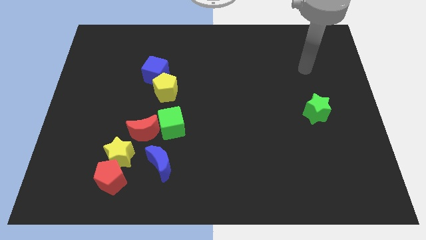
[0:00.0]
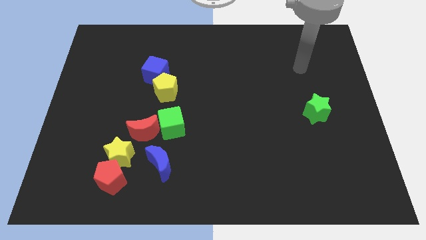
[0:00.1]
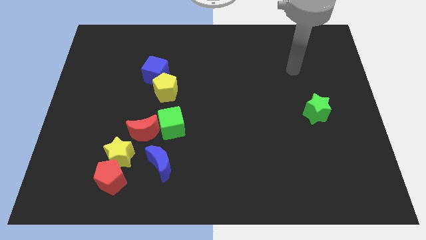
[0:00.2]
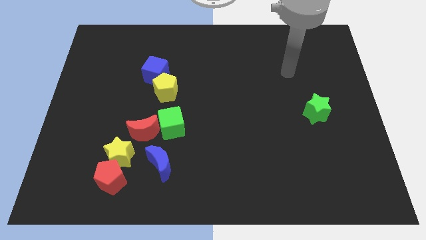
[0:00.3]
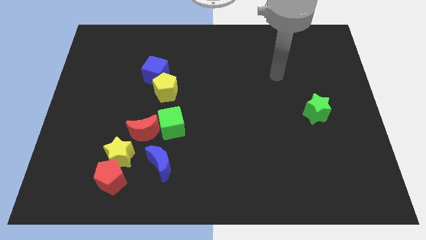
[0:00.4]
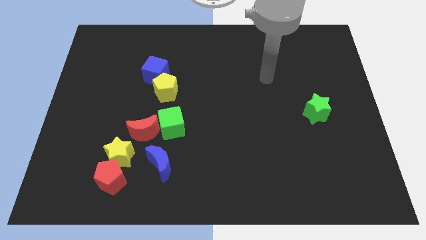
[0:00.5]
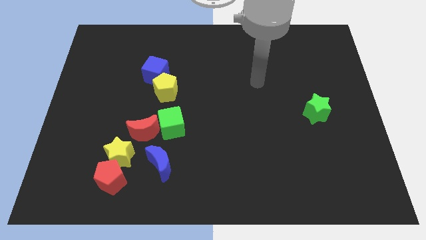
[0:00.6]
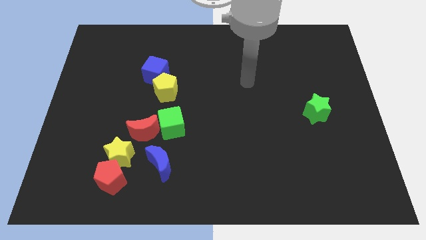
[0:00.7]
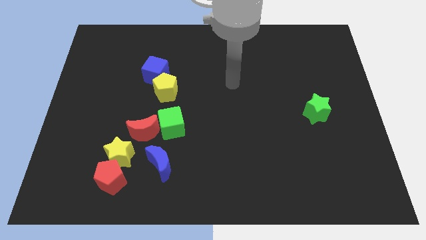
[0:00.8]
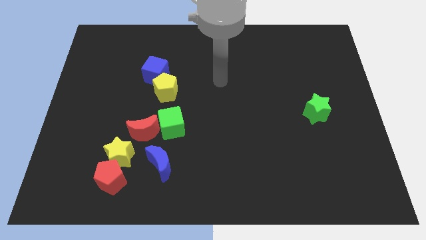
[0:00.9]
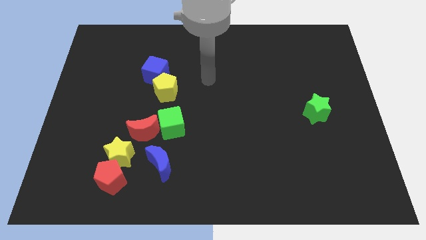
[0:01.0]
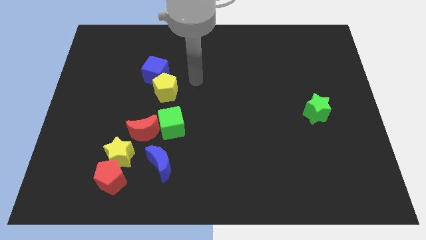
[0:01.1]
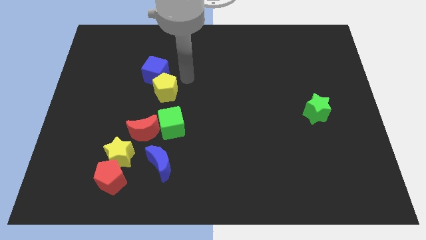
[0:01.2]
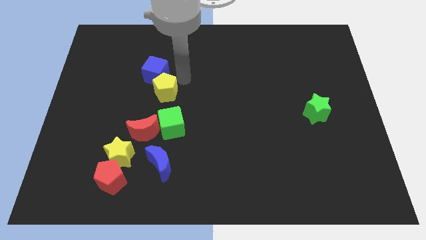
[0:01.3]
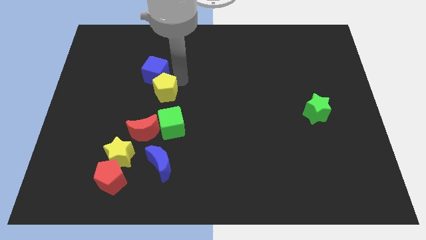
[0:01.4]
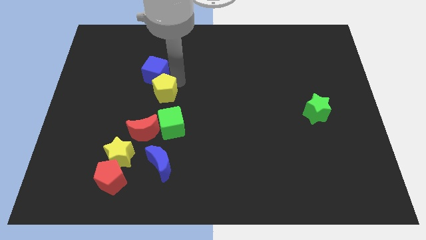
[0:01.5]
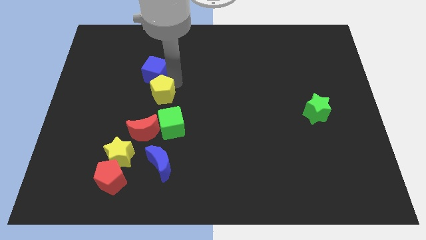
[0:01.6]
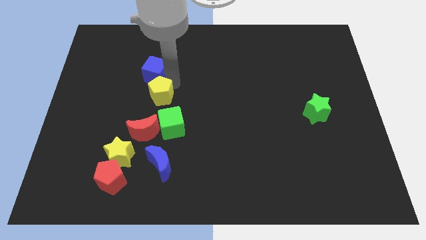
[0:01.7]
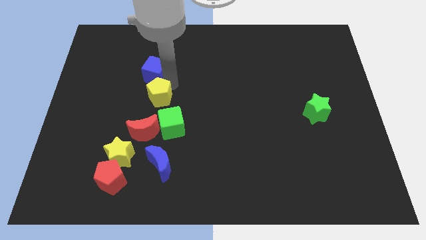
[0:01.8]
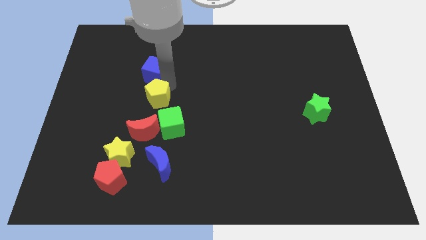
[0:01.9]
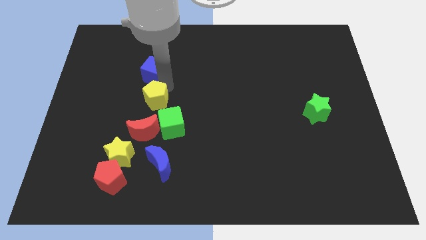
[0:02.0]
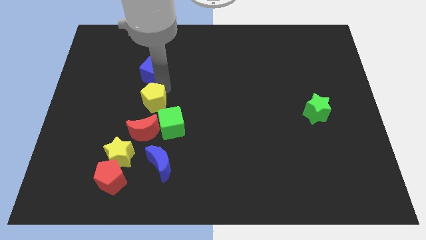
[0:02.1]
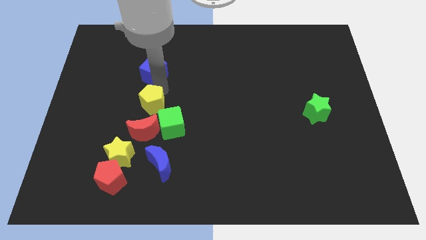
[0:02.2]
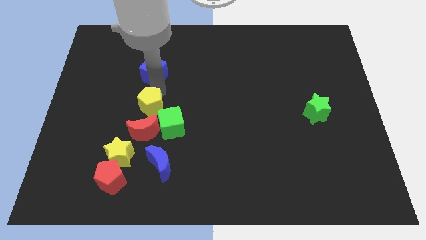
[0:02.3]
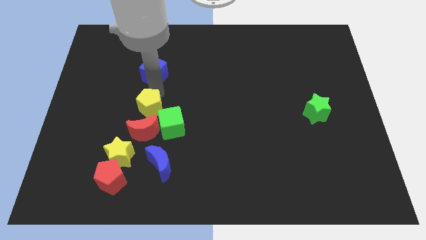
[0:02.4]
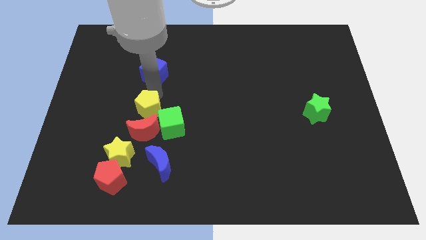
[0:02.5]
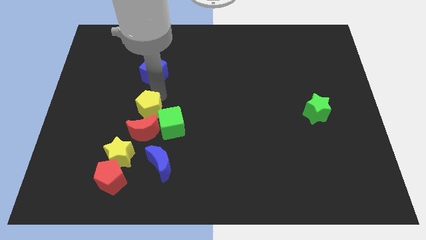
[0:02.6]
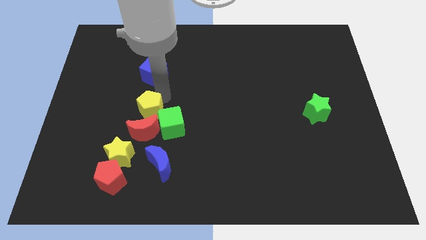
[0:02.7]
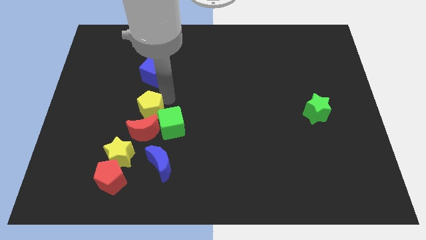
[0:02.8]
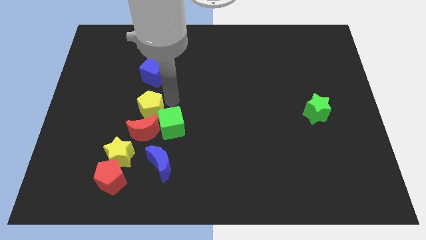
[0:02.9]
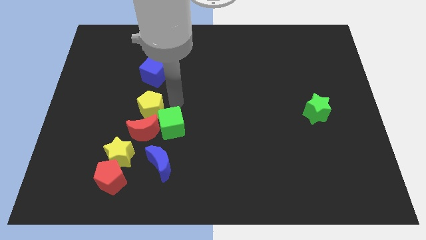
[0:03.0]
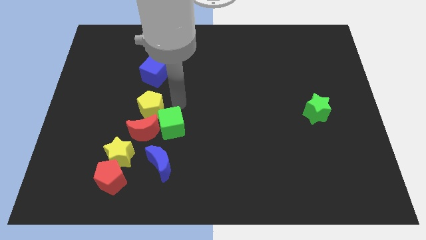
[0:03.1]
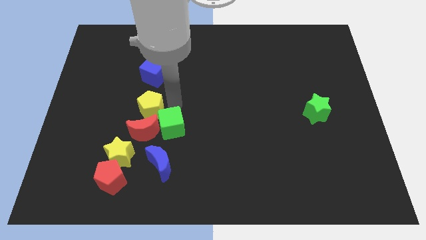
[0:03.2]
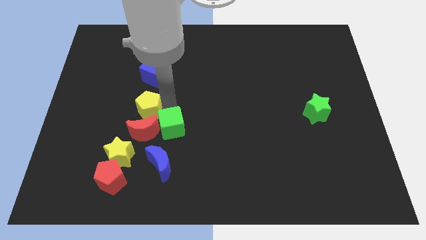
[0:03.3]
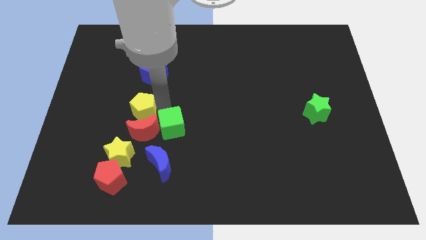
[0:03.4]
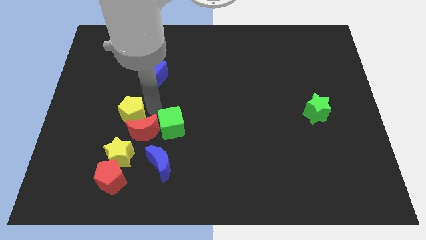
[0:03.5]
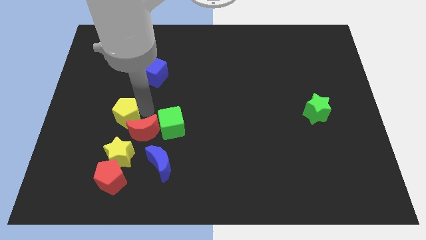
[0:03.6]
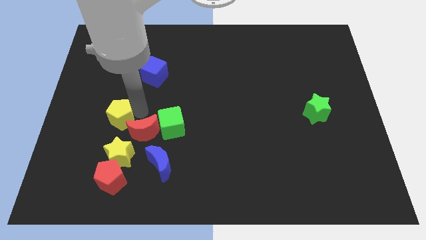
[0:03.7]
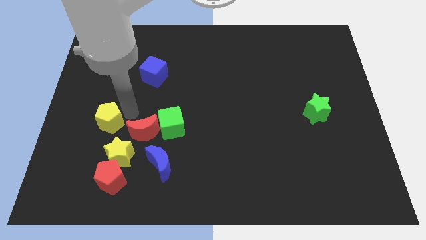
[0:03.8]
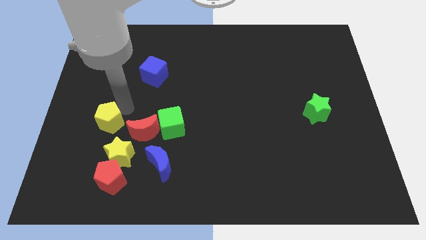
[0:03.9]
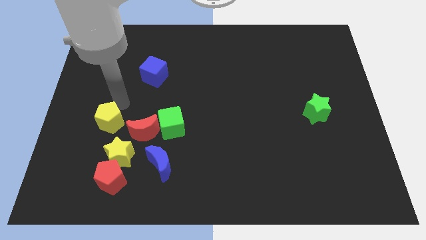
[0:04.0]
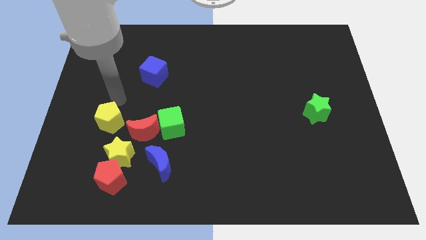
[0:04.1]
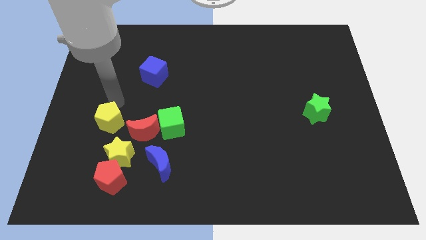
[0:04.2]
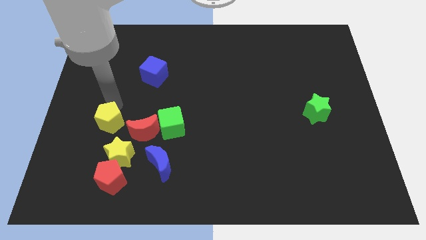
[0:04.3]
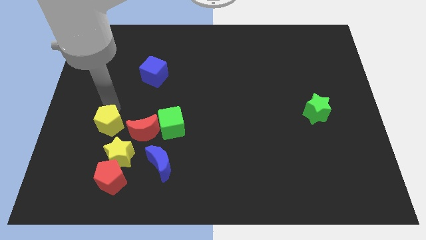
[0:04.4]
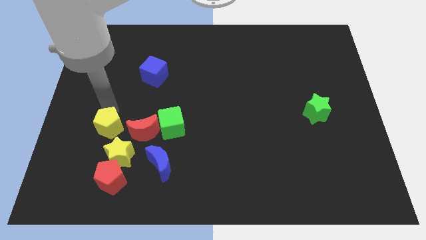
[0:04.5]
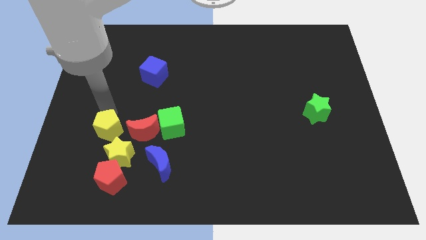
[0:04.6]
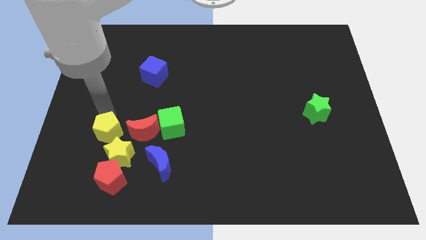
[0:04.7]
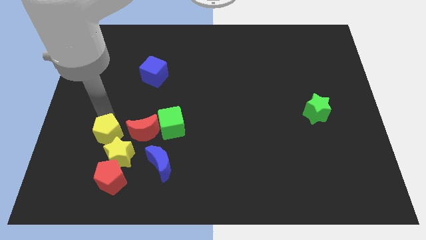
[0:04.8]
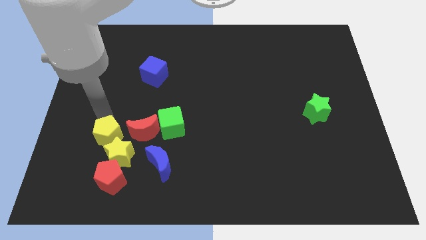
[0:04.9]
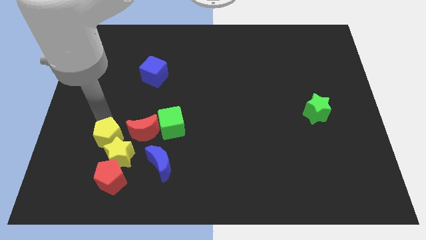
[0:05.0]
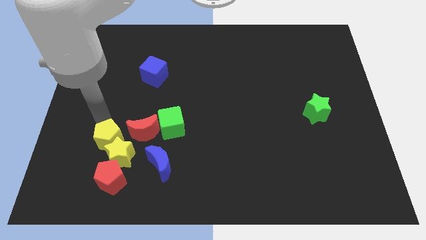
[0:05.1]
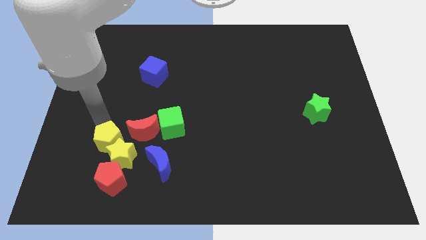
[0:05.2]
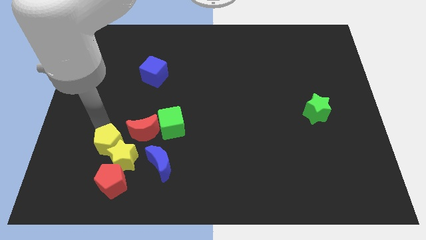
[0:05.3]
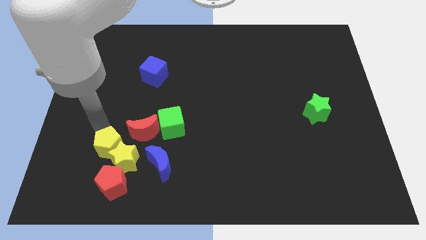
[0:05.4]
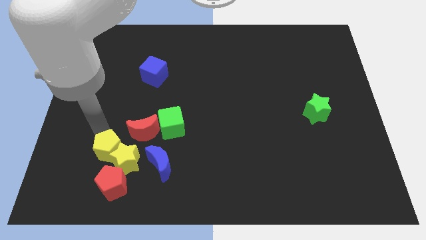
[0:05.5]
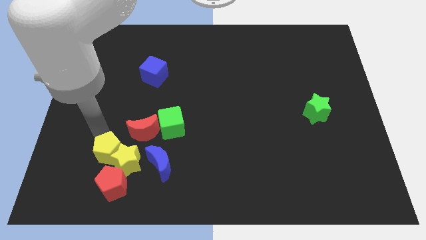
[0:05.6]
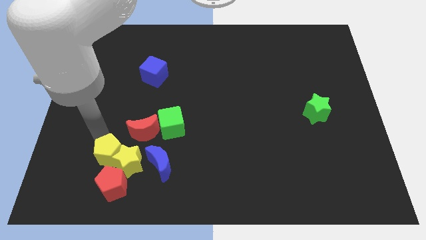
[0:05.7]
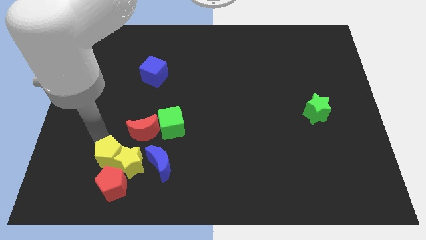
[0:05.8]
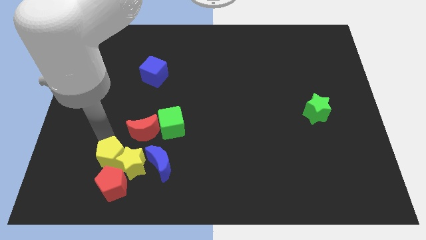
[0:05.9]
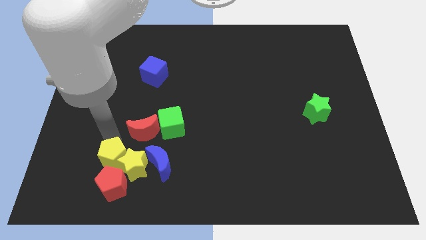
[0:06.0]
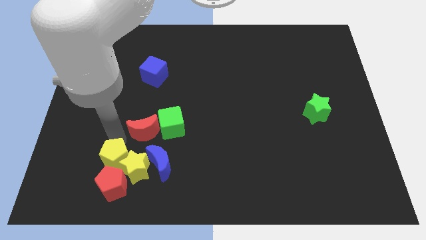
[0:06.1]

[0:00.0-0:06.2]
put the yellow pentagon close to the red pentagon

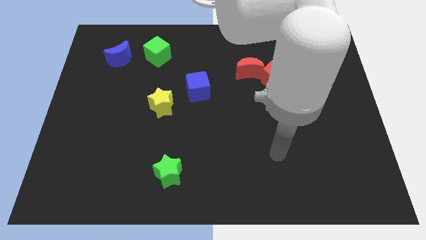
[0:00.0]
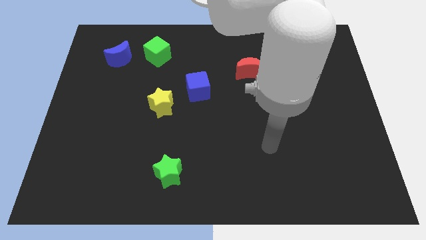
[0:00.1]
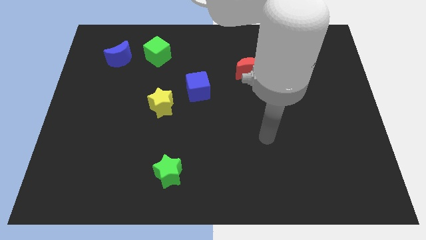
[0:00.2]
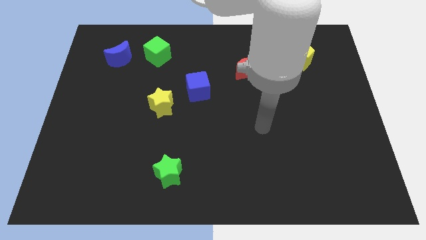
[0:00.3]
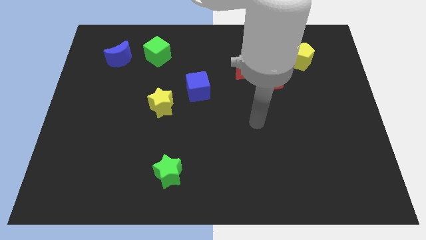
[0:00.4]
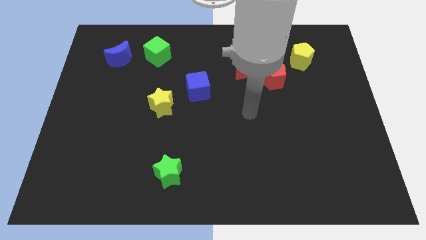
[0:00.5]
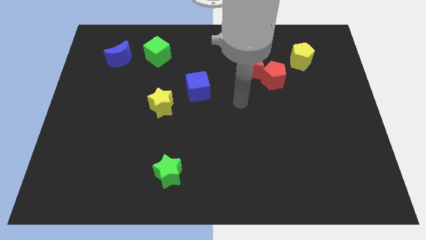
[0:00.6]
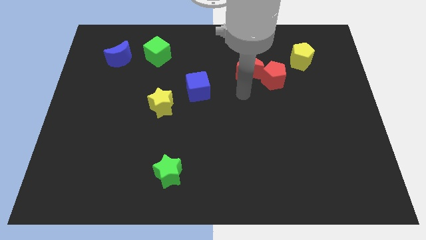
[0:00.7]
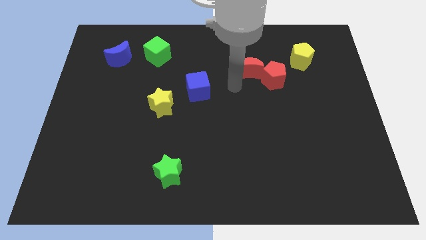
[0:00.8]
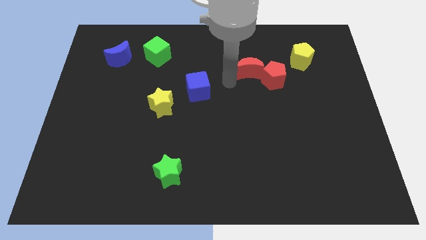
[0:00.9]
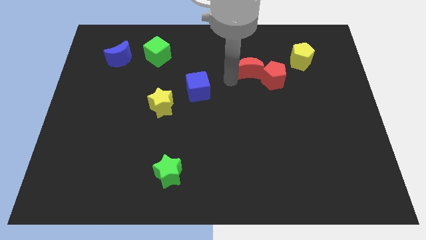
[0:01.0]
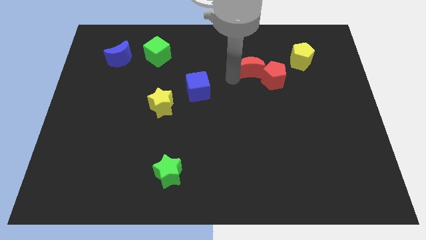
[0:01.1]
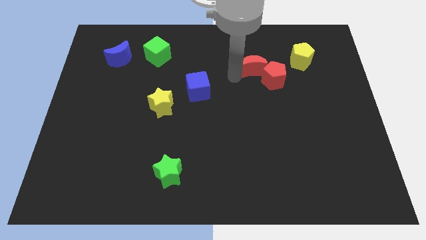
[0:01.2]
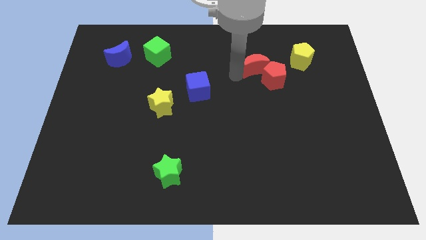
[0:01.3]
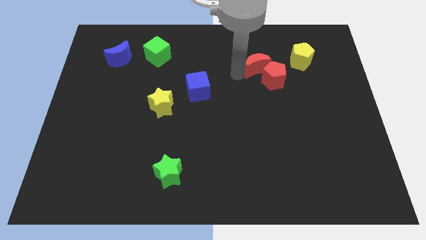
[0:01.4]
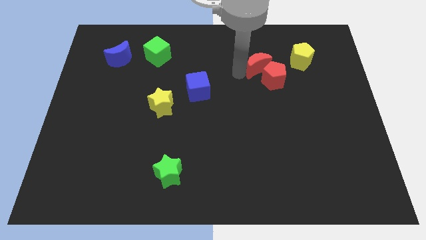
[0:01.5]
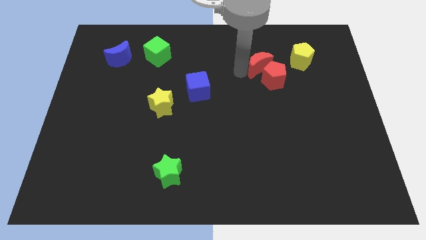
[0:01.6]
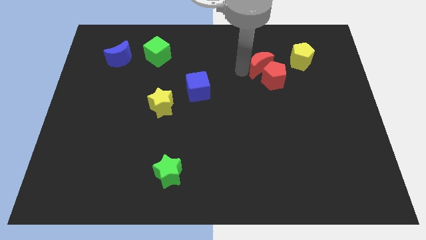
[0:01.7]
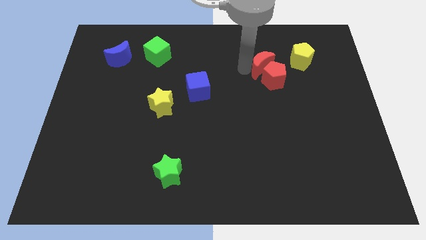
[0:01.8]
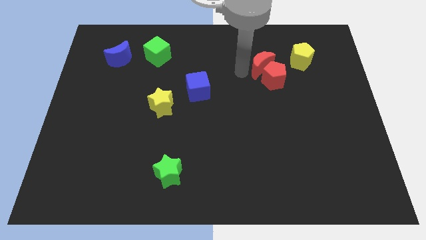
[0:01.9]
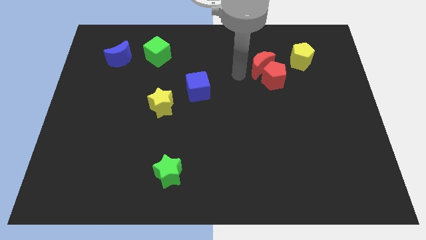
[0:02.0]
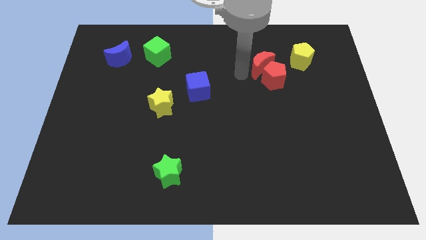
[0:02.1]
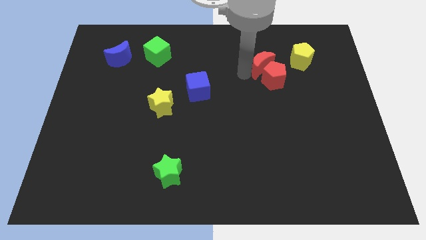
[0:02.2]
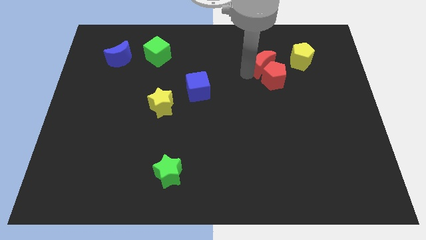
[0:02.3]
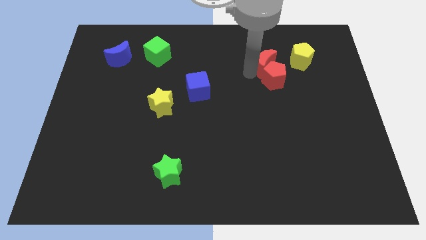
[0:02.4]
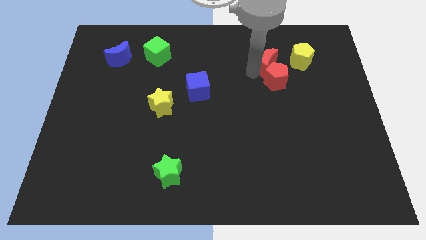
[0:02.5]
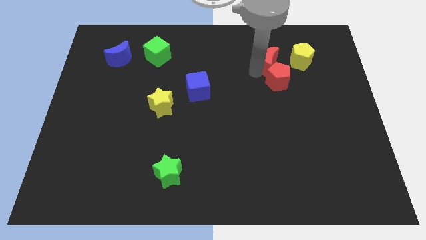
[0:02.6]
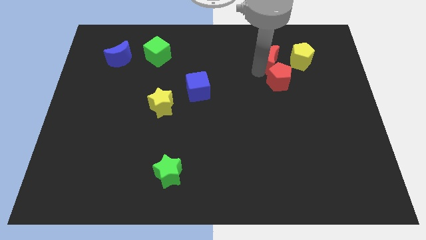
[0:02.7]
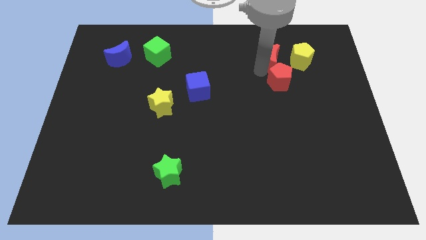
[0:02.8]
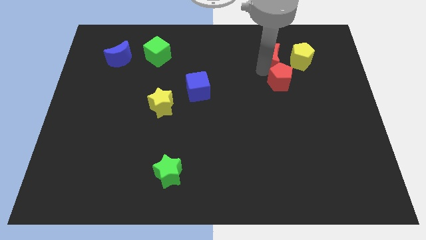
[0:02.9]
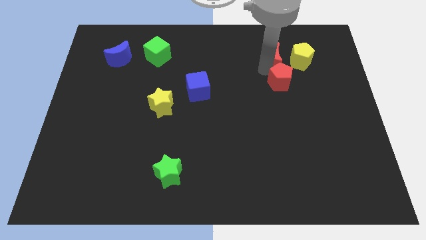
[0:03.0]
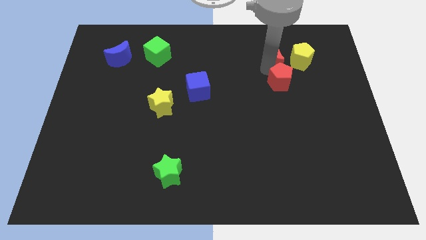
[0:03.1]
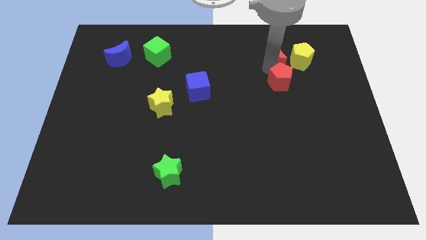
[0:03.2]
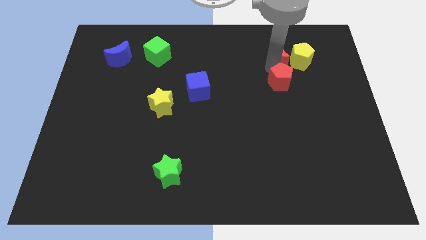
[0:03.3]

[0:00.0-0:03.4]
push the red moon next to the yellow pentagon
